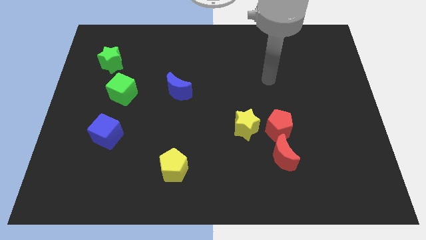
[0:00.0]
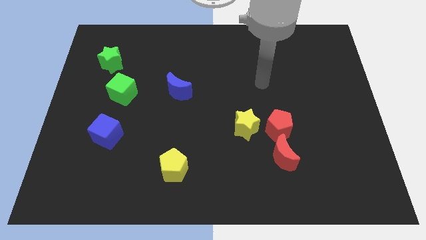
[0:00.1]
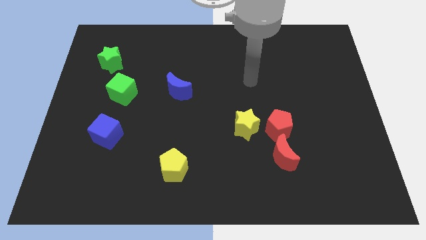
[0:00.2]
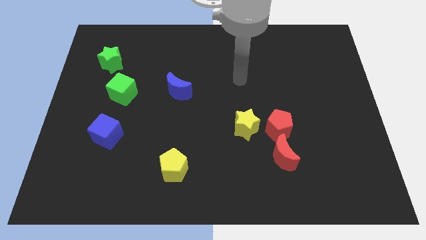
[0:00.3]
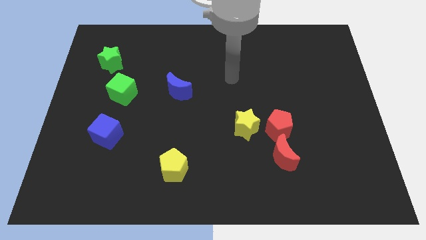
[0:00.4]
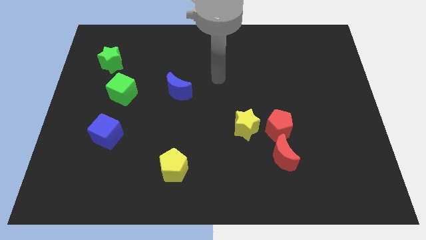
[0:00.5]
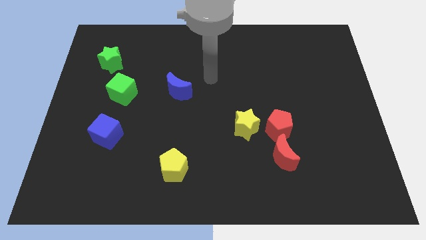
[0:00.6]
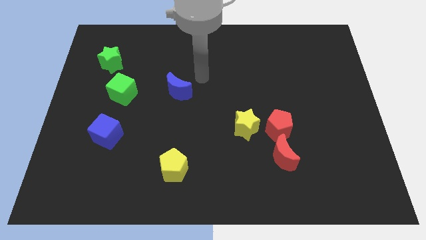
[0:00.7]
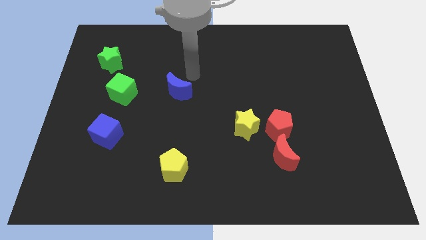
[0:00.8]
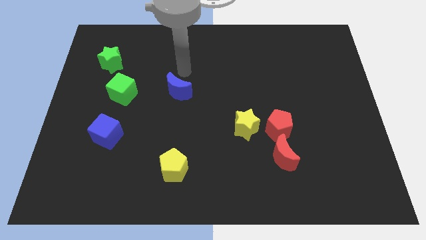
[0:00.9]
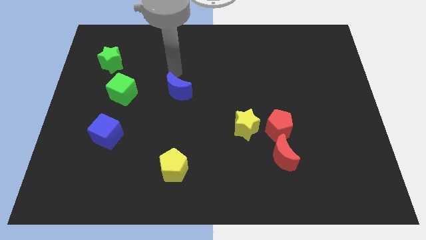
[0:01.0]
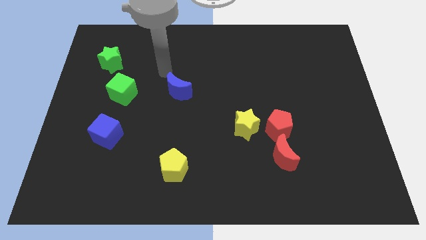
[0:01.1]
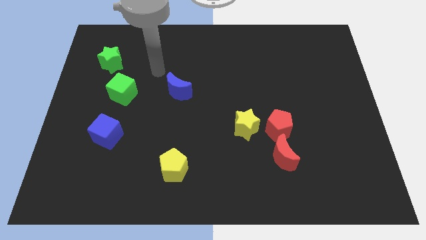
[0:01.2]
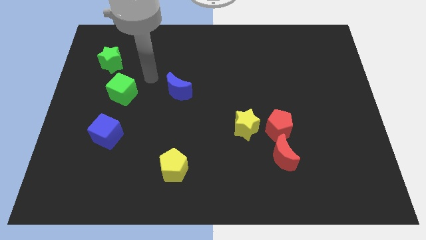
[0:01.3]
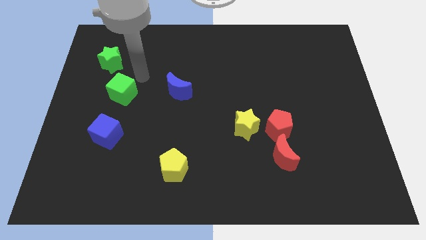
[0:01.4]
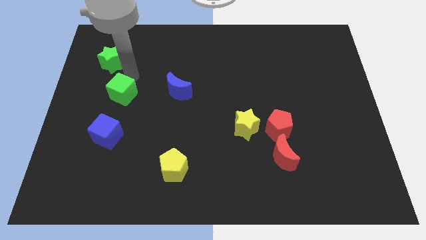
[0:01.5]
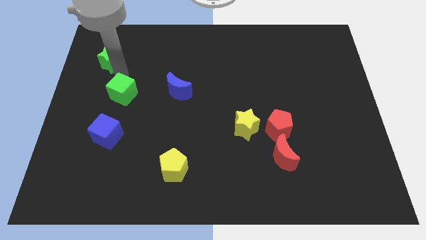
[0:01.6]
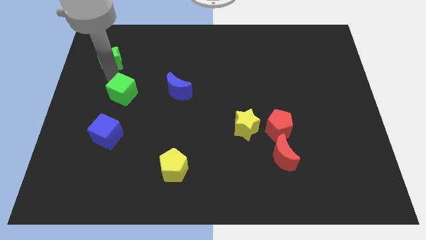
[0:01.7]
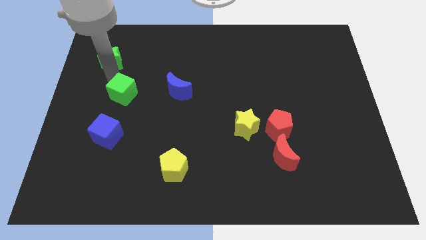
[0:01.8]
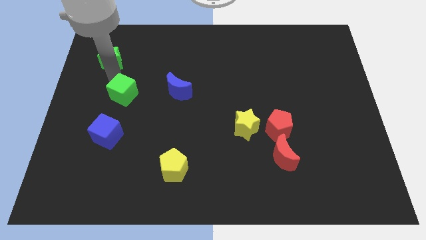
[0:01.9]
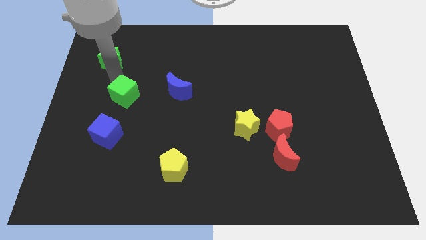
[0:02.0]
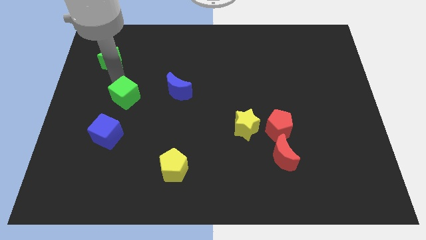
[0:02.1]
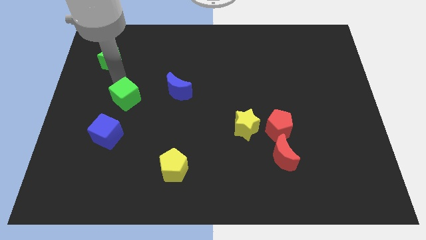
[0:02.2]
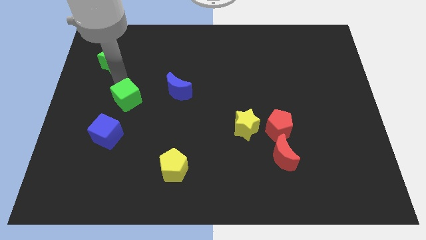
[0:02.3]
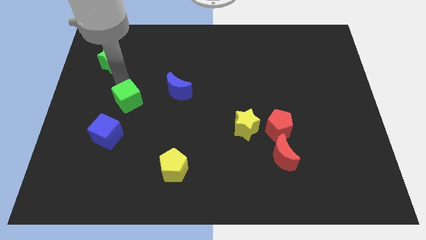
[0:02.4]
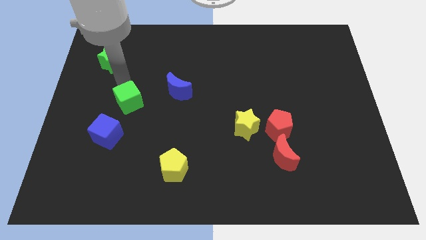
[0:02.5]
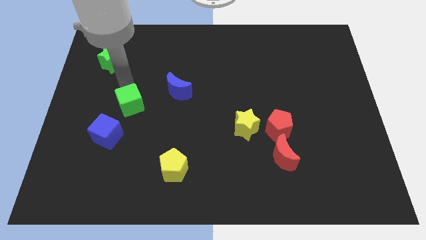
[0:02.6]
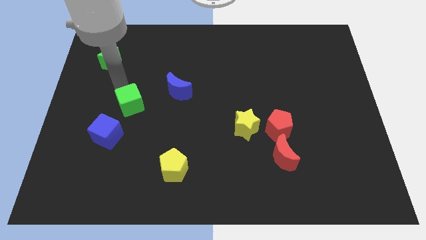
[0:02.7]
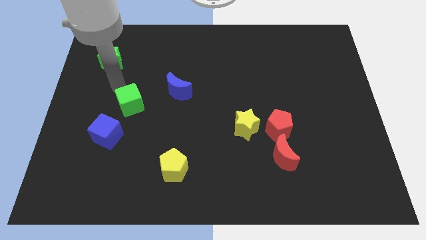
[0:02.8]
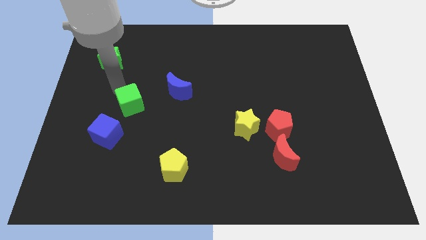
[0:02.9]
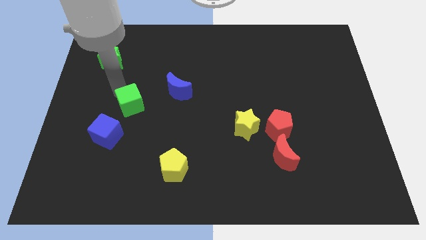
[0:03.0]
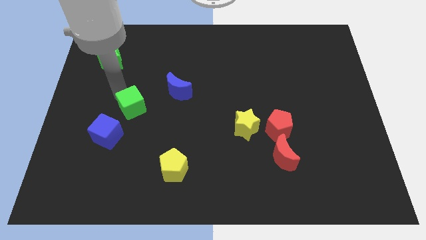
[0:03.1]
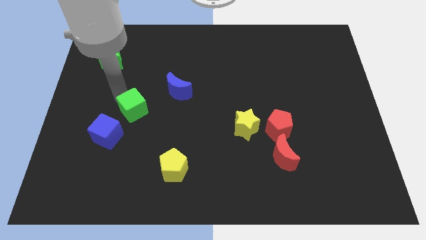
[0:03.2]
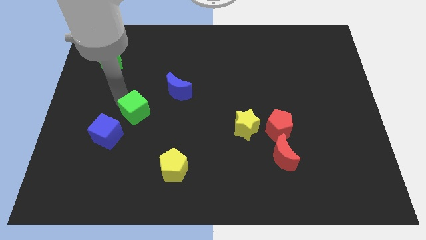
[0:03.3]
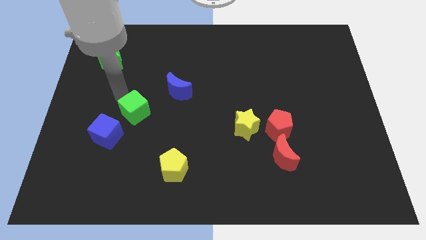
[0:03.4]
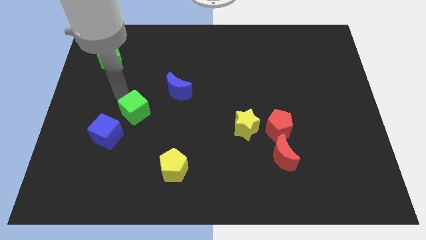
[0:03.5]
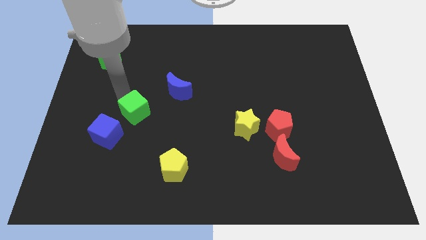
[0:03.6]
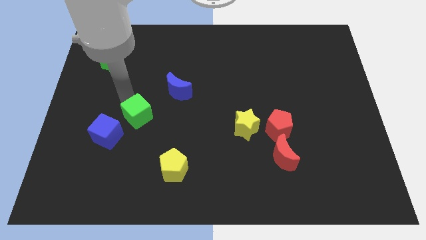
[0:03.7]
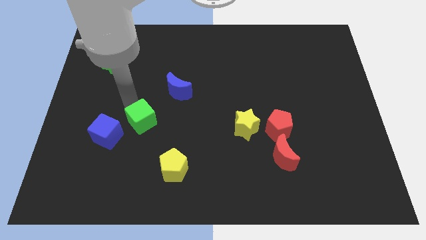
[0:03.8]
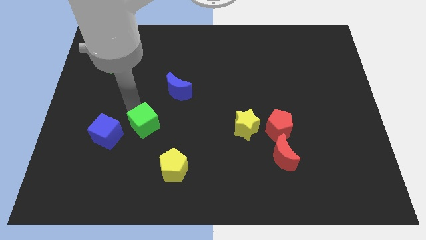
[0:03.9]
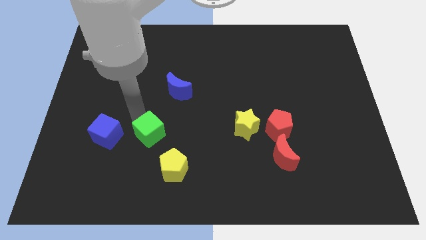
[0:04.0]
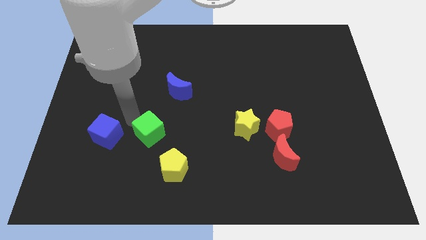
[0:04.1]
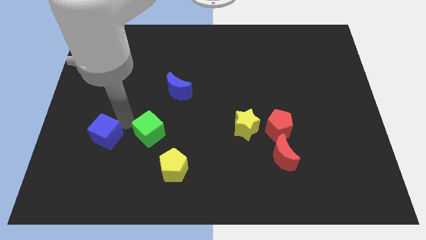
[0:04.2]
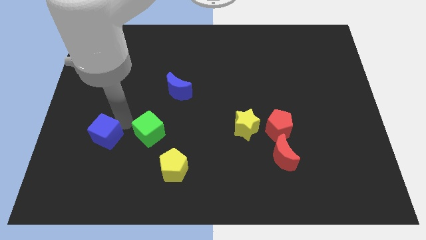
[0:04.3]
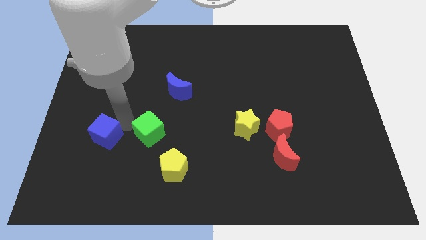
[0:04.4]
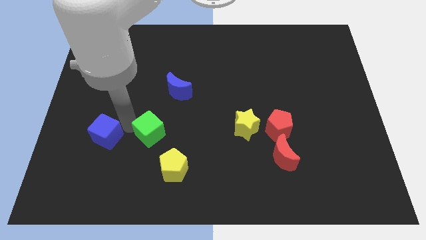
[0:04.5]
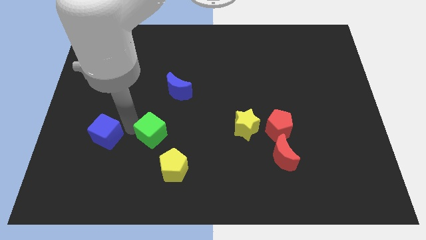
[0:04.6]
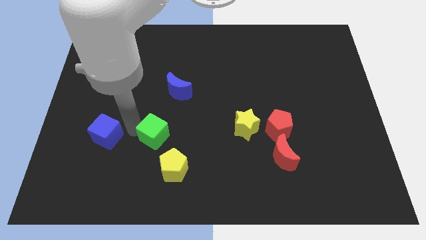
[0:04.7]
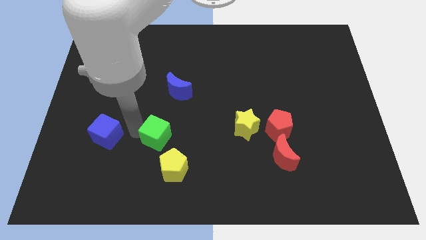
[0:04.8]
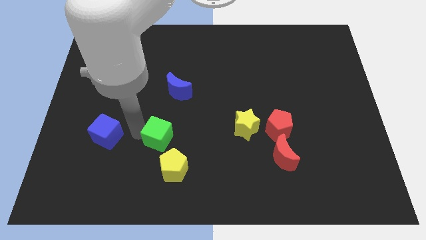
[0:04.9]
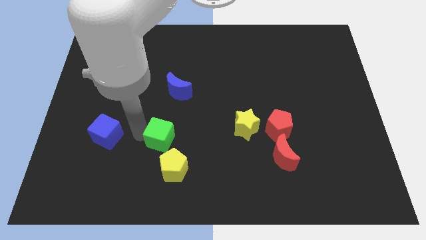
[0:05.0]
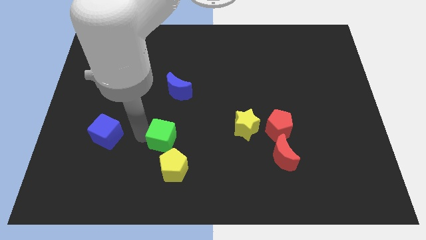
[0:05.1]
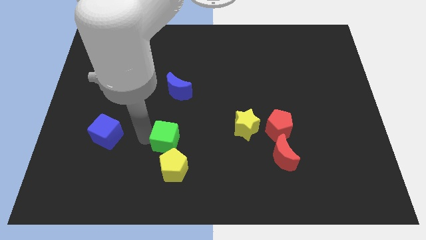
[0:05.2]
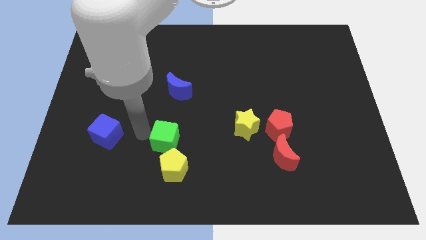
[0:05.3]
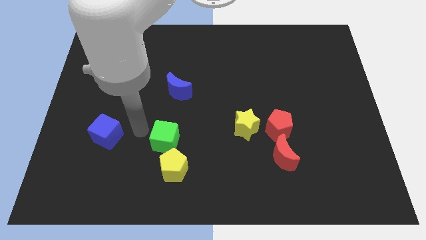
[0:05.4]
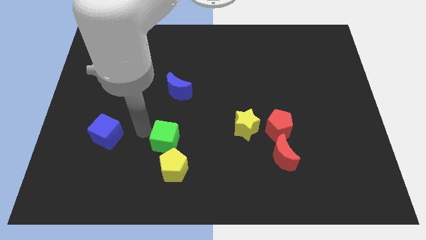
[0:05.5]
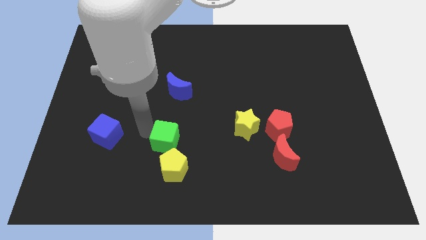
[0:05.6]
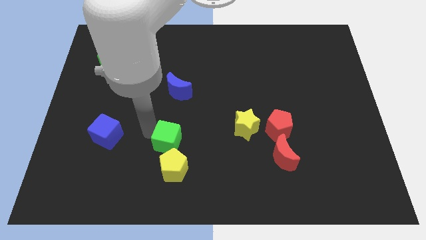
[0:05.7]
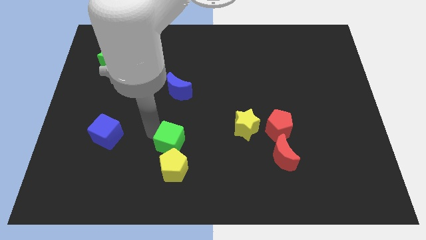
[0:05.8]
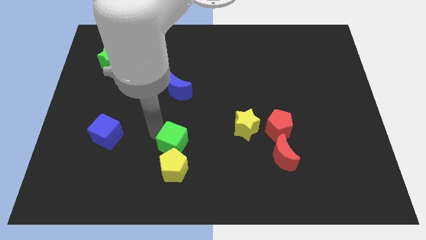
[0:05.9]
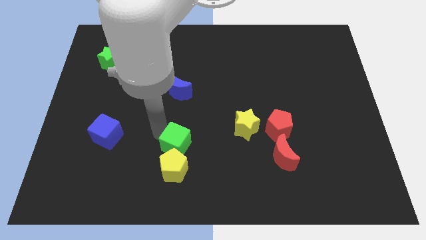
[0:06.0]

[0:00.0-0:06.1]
move the green cube down and then to the right

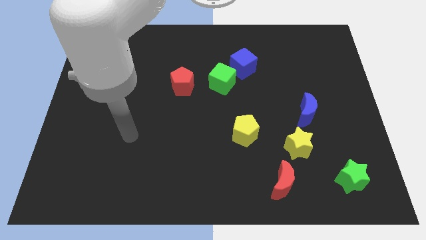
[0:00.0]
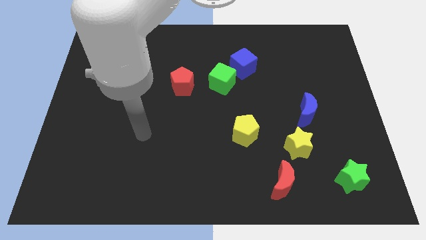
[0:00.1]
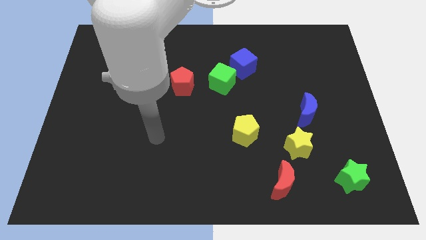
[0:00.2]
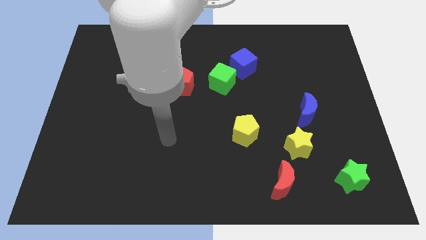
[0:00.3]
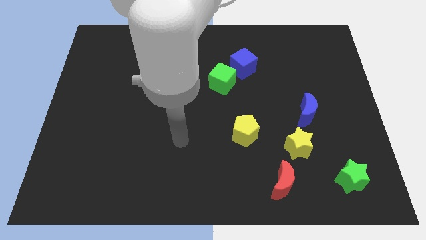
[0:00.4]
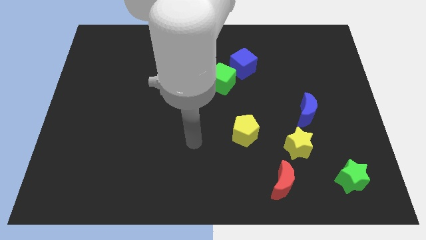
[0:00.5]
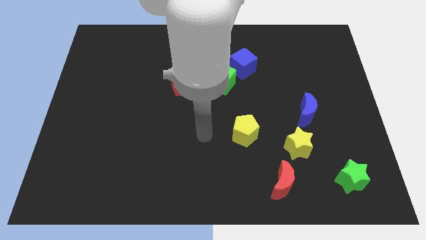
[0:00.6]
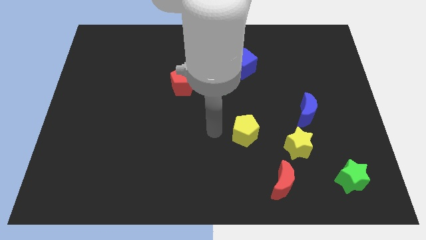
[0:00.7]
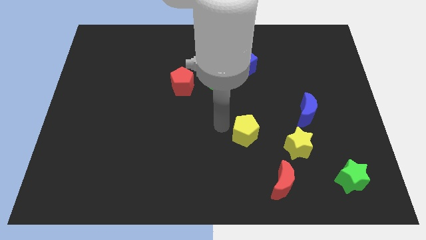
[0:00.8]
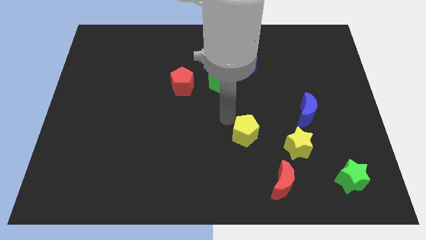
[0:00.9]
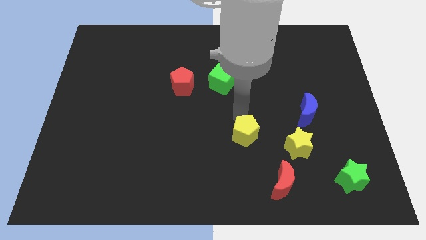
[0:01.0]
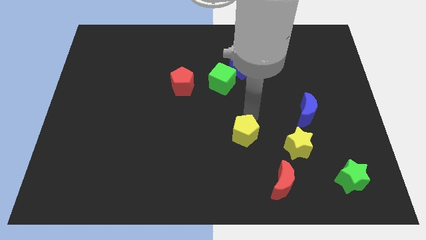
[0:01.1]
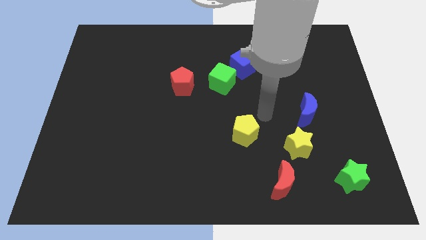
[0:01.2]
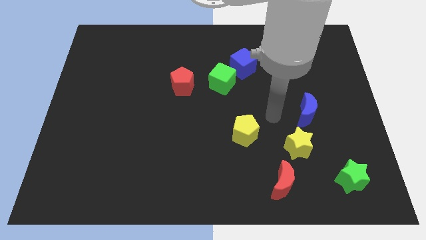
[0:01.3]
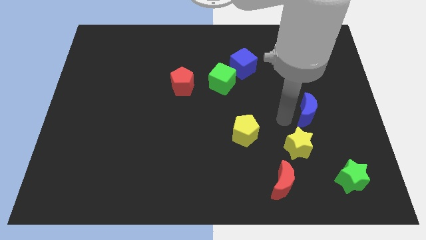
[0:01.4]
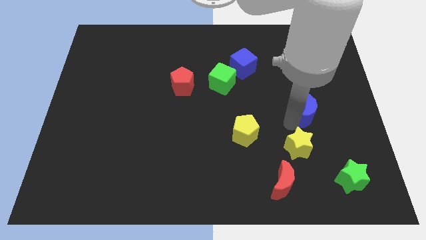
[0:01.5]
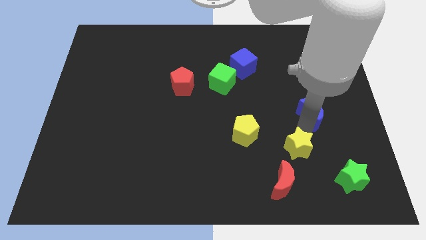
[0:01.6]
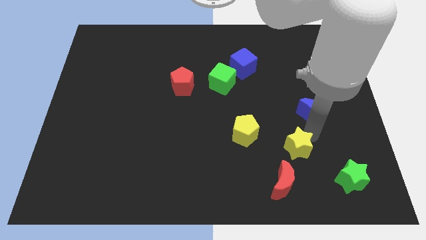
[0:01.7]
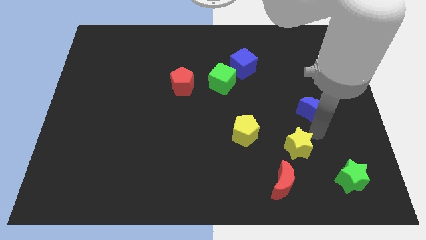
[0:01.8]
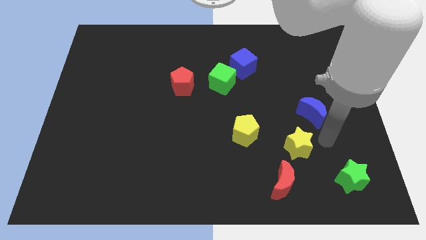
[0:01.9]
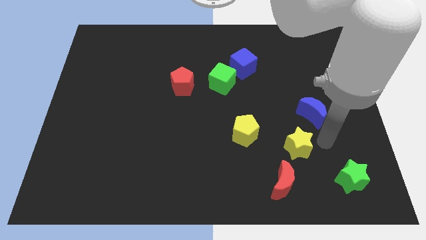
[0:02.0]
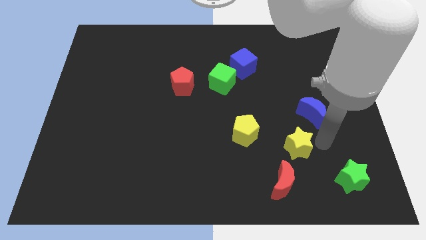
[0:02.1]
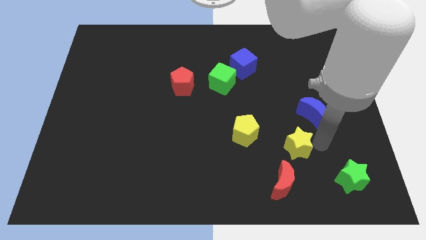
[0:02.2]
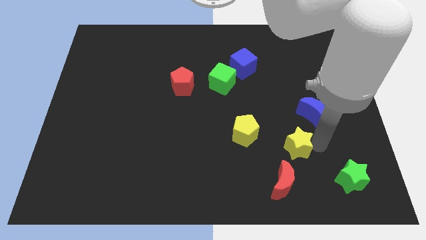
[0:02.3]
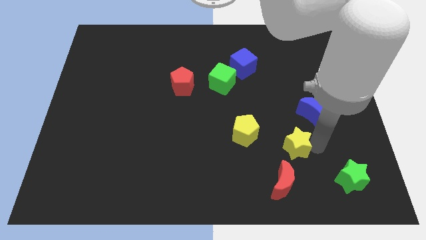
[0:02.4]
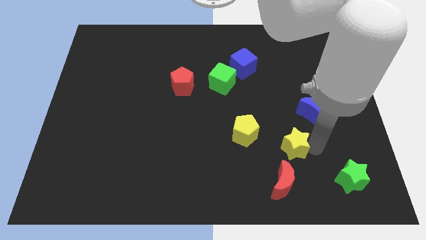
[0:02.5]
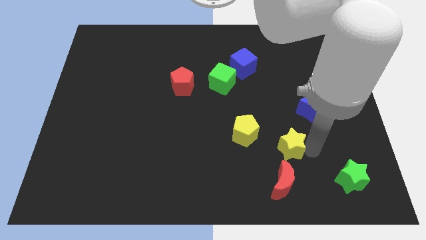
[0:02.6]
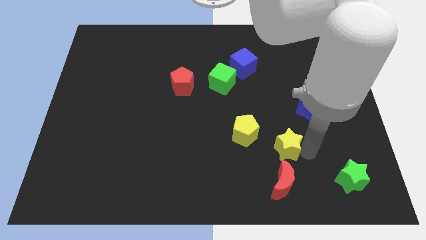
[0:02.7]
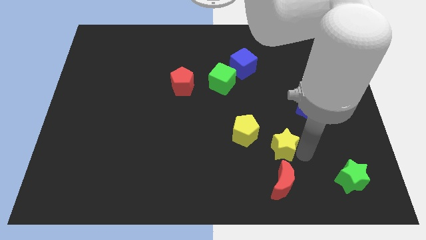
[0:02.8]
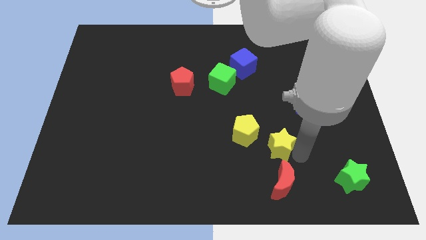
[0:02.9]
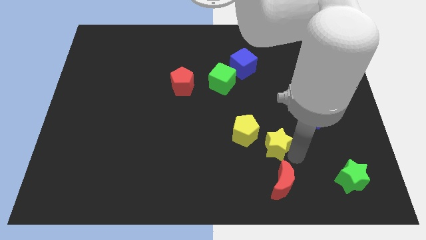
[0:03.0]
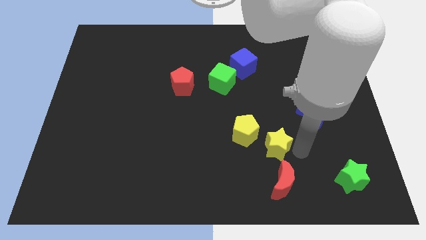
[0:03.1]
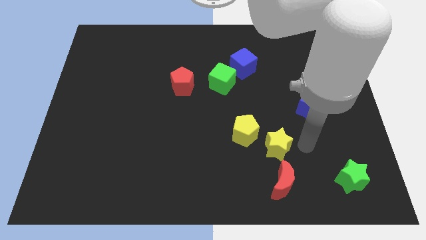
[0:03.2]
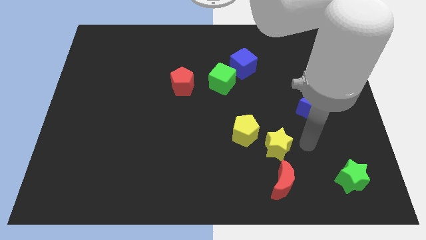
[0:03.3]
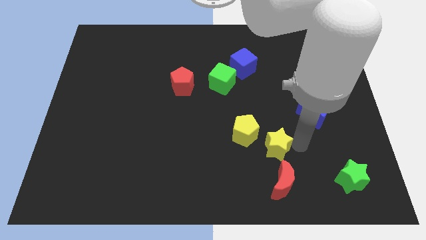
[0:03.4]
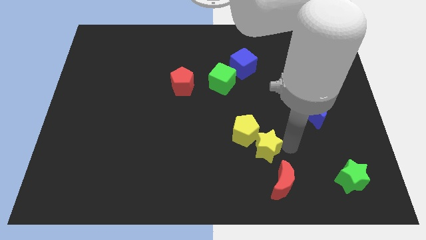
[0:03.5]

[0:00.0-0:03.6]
slide the yellow star somewhat to the left
